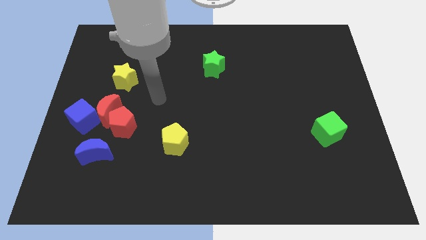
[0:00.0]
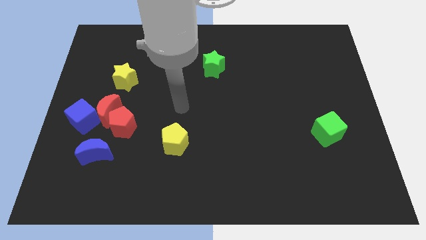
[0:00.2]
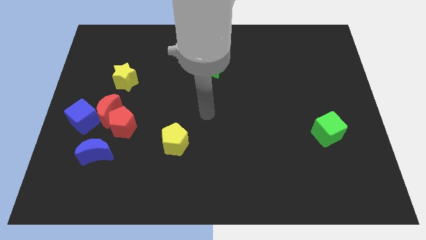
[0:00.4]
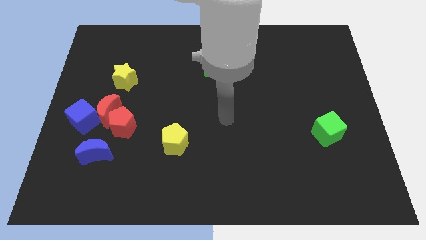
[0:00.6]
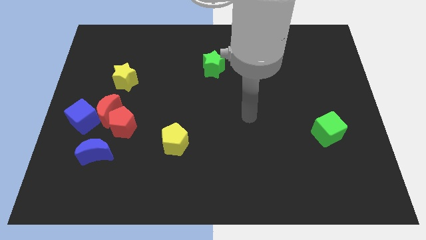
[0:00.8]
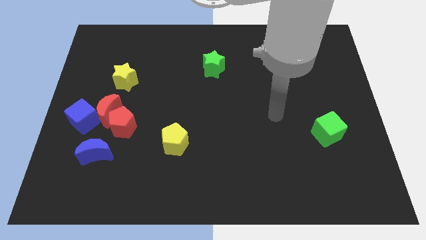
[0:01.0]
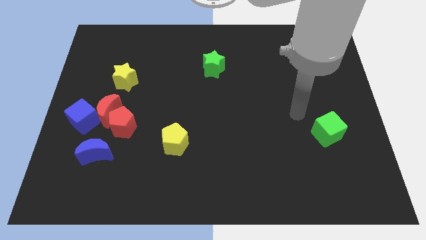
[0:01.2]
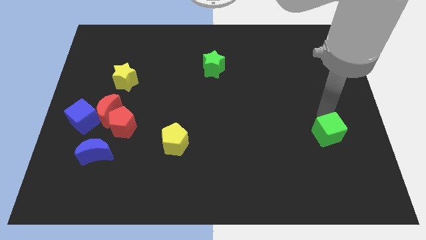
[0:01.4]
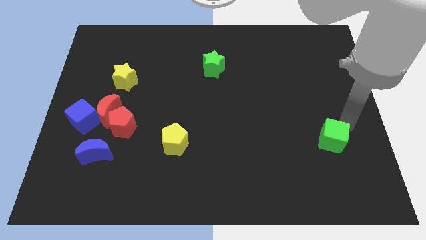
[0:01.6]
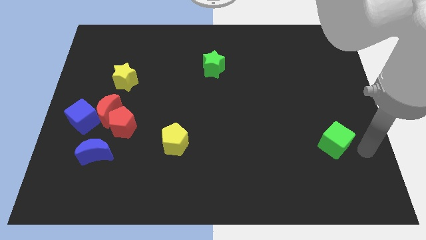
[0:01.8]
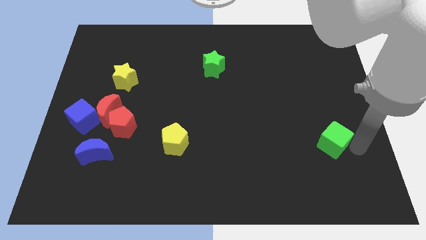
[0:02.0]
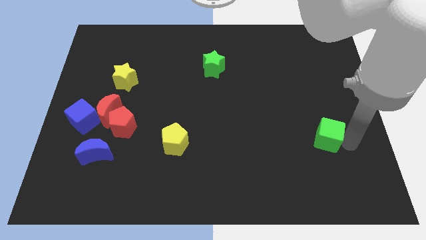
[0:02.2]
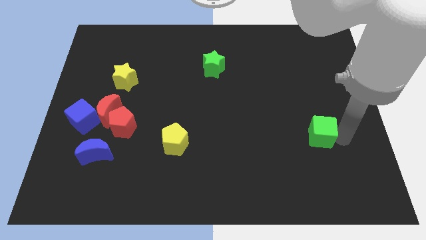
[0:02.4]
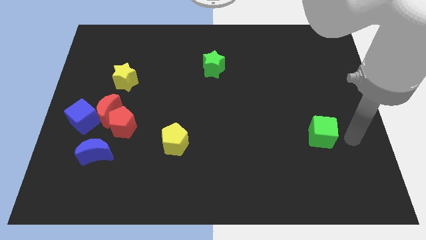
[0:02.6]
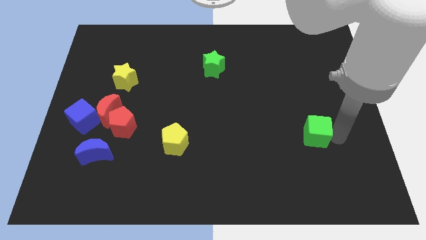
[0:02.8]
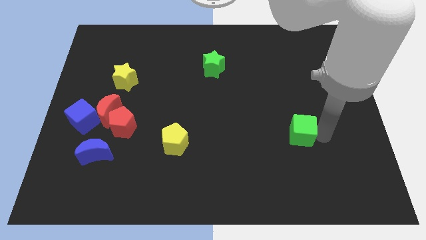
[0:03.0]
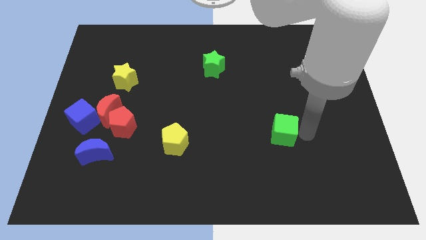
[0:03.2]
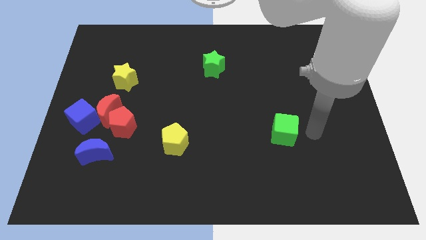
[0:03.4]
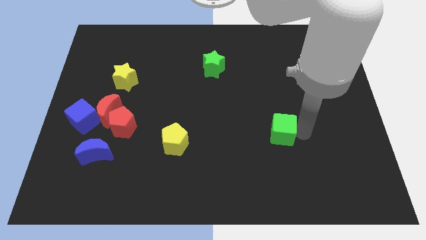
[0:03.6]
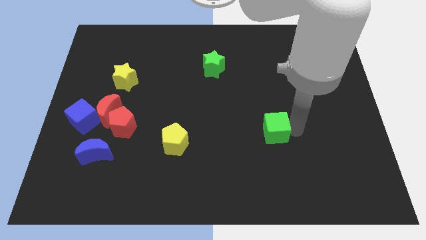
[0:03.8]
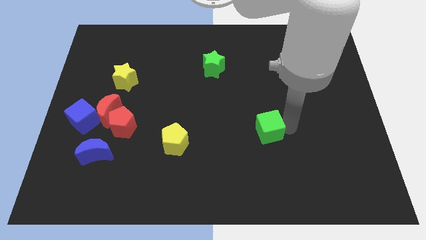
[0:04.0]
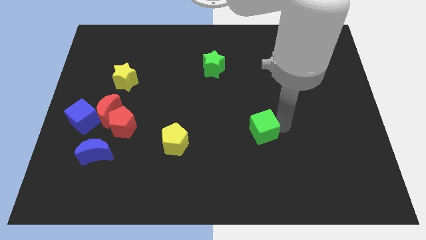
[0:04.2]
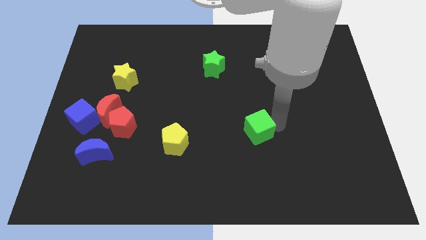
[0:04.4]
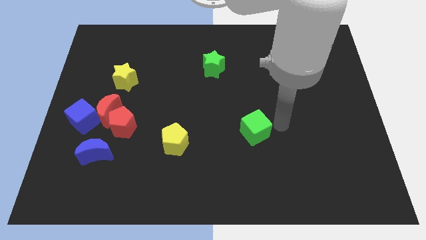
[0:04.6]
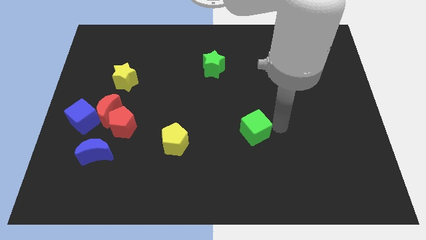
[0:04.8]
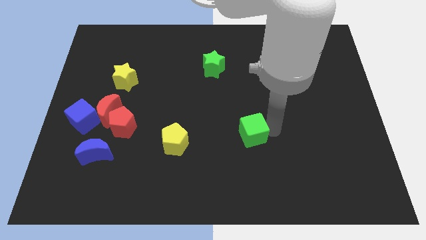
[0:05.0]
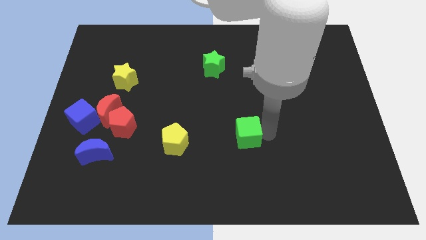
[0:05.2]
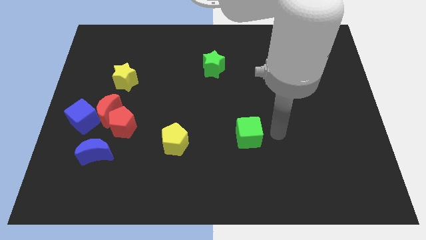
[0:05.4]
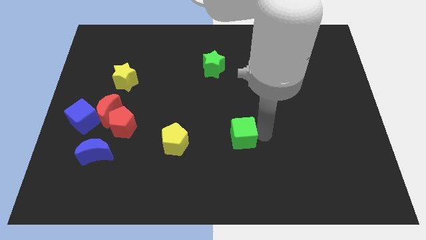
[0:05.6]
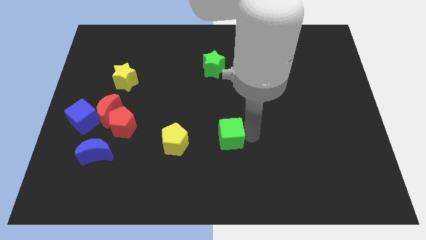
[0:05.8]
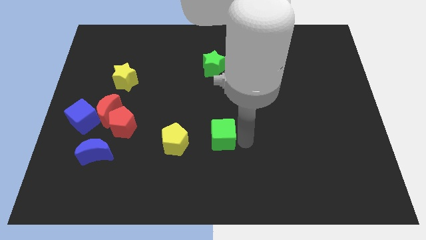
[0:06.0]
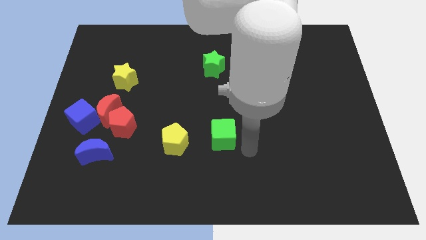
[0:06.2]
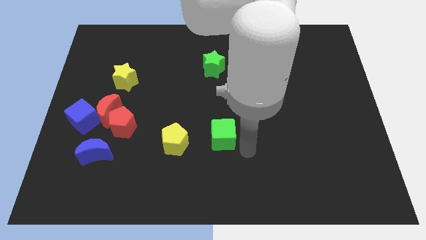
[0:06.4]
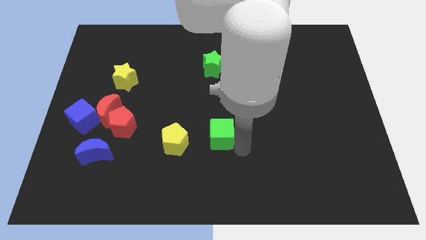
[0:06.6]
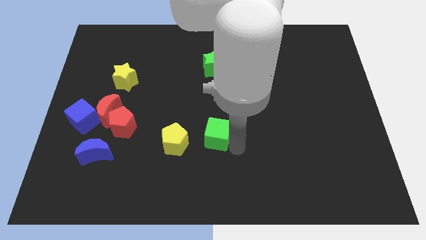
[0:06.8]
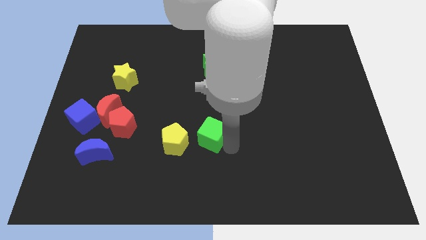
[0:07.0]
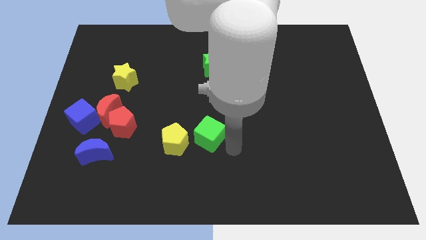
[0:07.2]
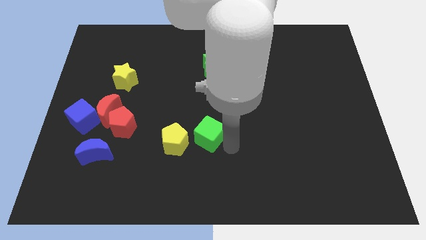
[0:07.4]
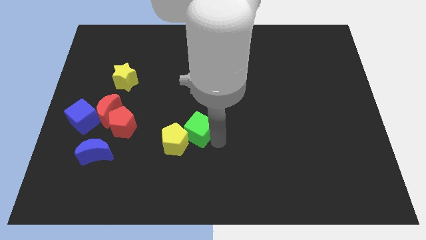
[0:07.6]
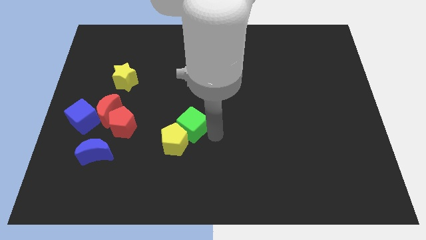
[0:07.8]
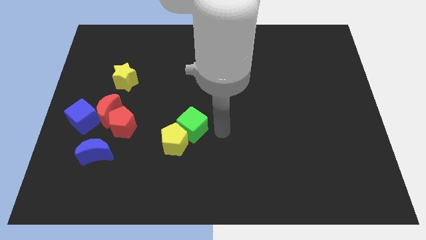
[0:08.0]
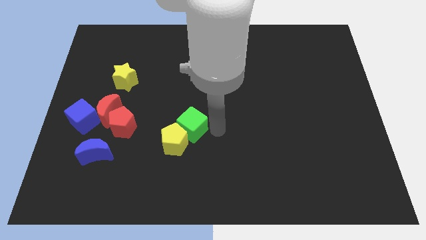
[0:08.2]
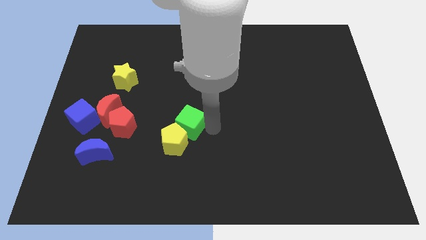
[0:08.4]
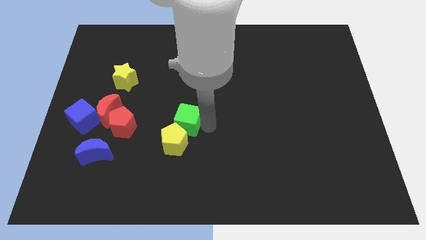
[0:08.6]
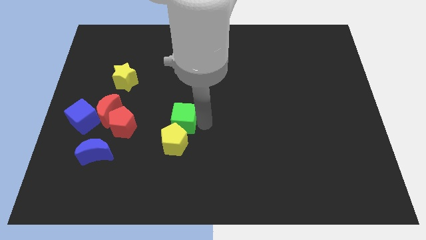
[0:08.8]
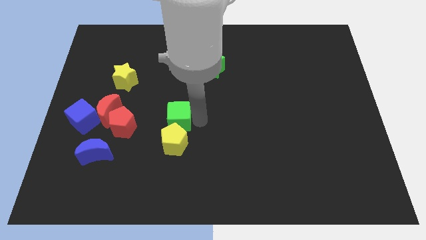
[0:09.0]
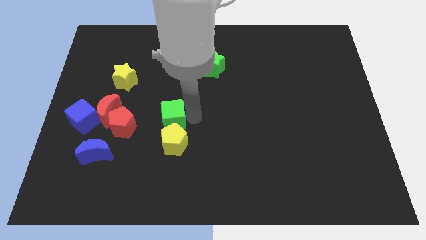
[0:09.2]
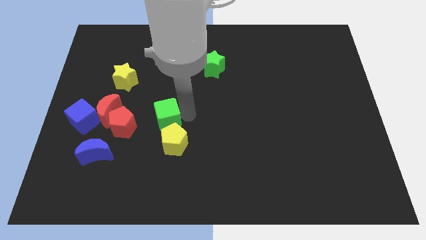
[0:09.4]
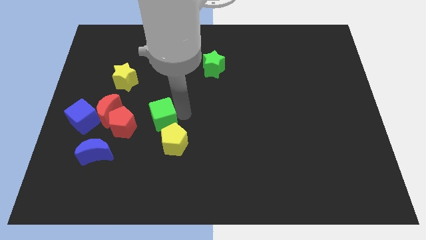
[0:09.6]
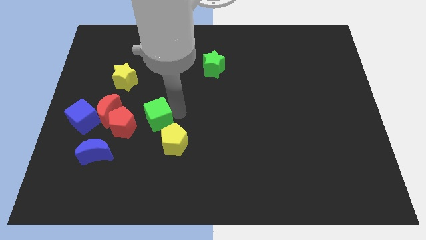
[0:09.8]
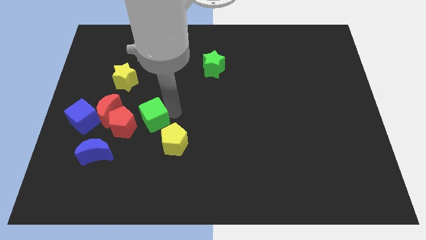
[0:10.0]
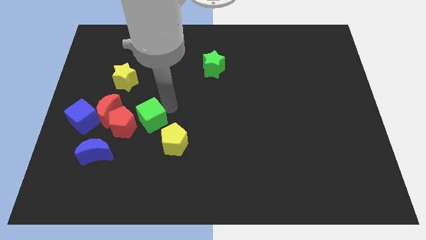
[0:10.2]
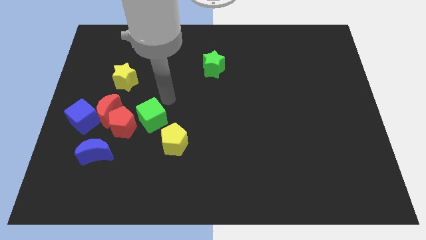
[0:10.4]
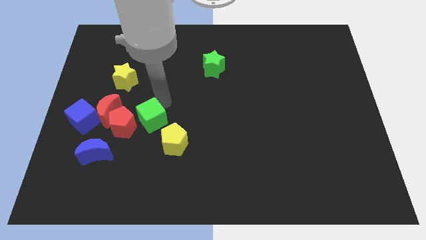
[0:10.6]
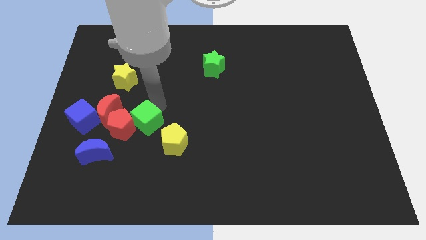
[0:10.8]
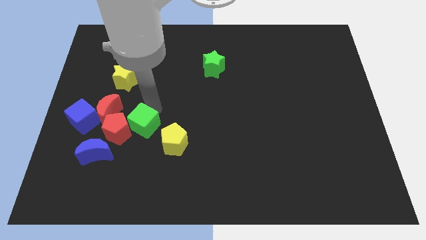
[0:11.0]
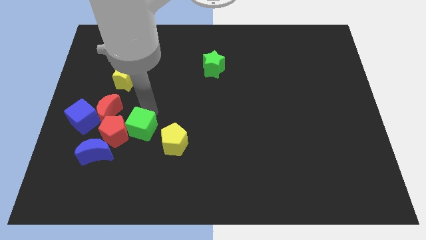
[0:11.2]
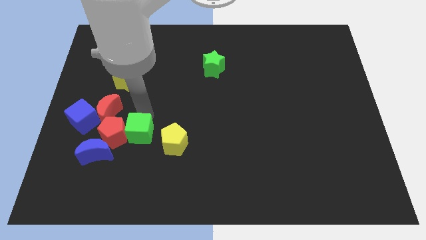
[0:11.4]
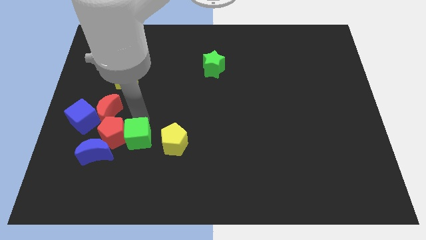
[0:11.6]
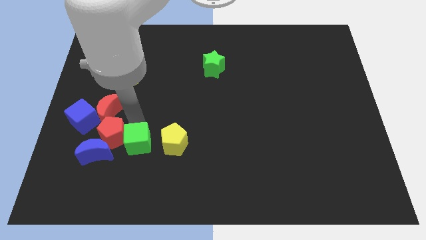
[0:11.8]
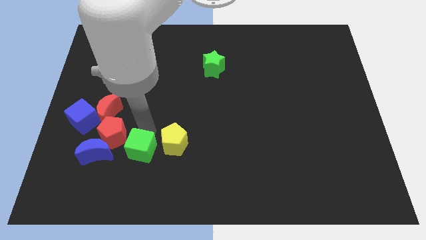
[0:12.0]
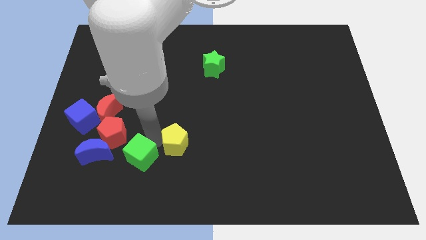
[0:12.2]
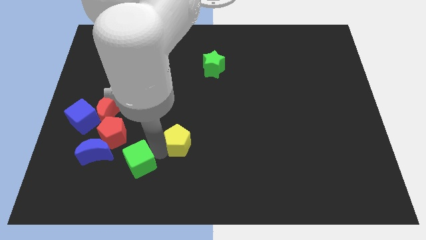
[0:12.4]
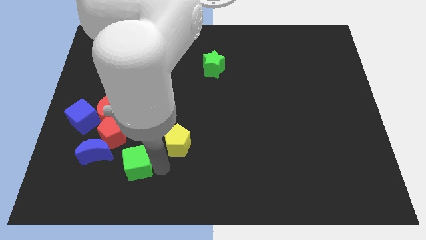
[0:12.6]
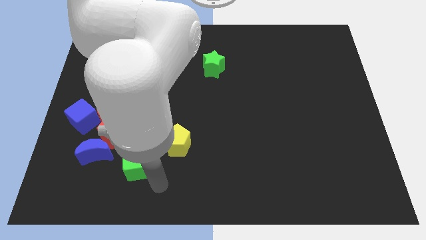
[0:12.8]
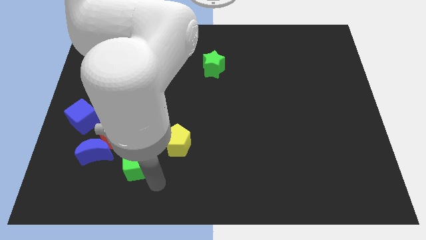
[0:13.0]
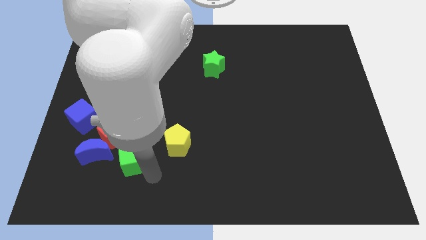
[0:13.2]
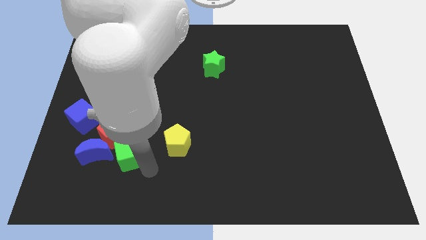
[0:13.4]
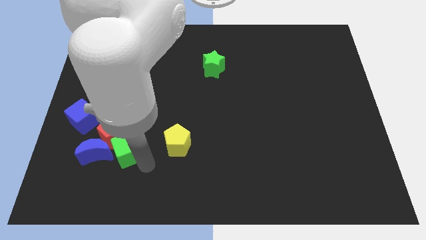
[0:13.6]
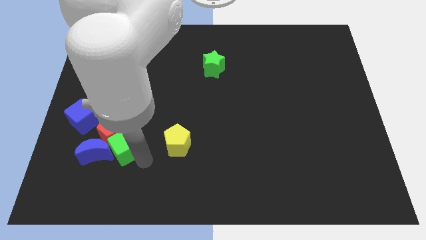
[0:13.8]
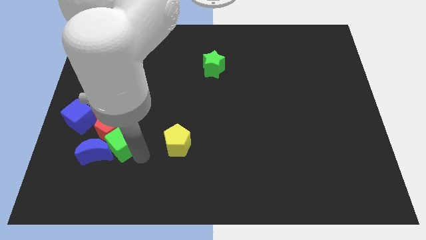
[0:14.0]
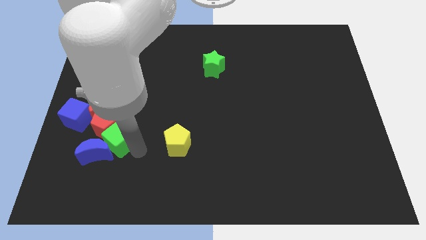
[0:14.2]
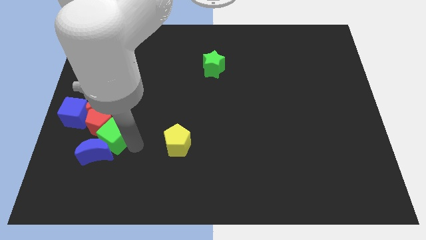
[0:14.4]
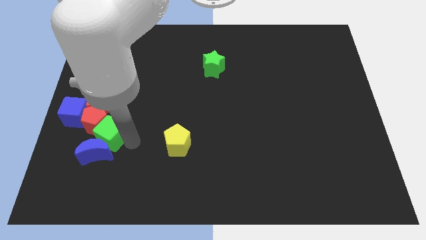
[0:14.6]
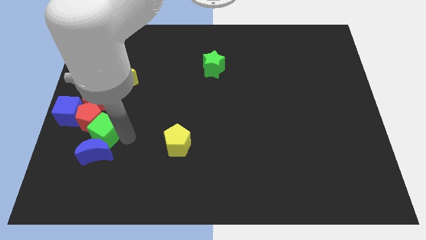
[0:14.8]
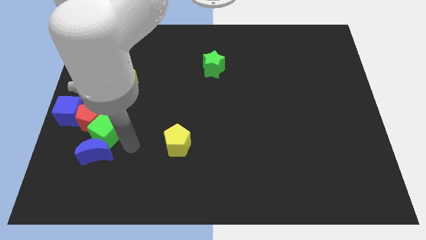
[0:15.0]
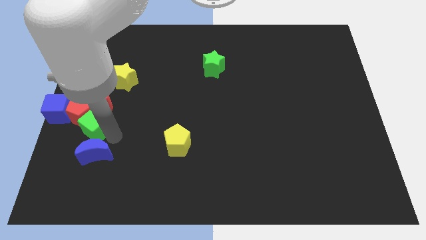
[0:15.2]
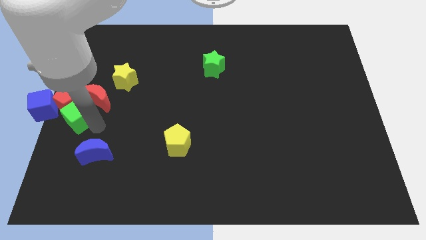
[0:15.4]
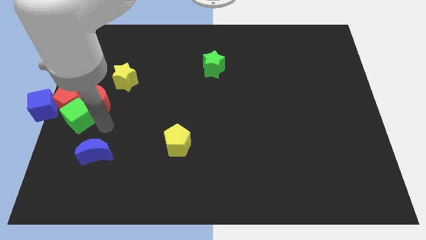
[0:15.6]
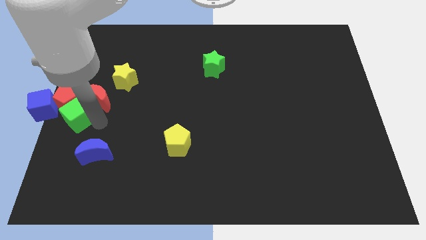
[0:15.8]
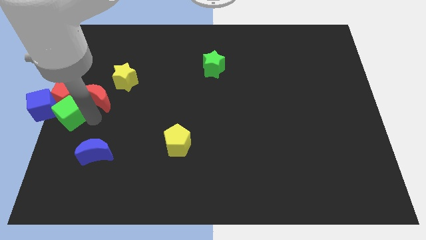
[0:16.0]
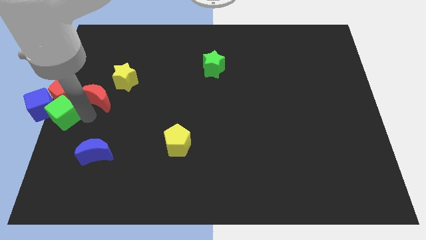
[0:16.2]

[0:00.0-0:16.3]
push the green cube close to the blue cube
